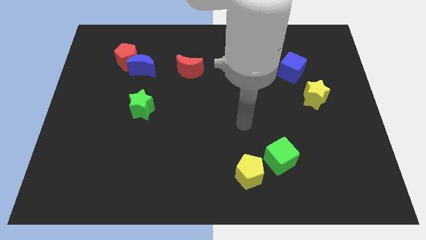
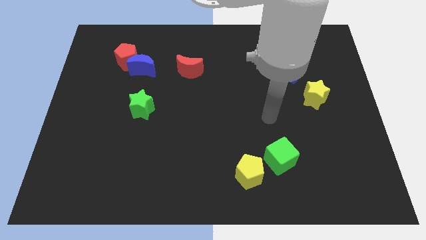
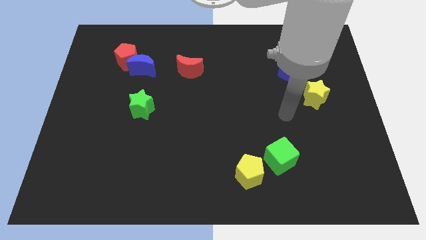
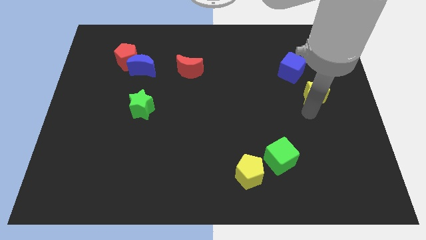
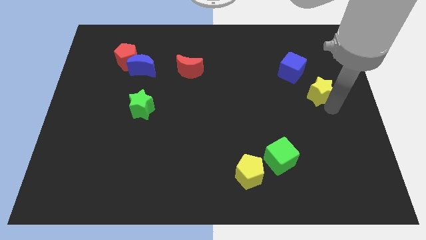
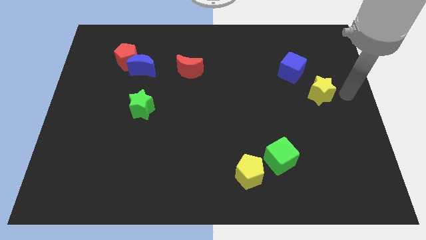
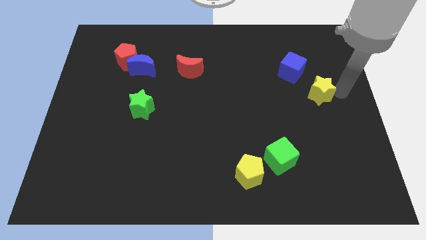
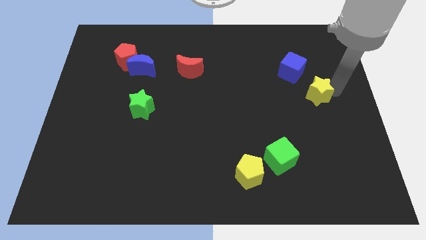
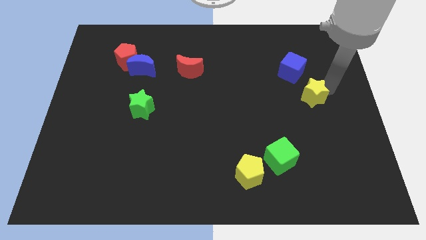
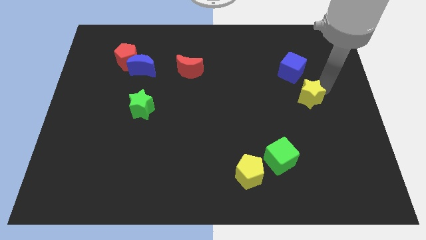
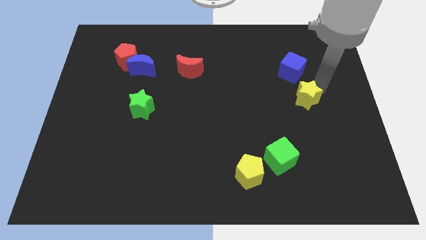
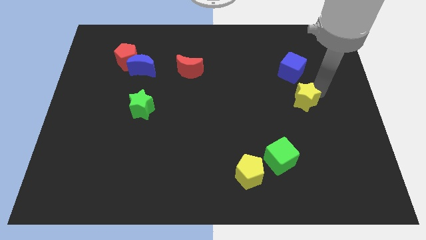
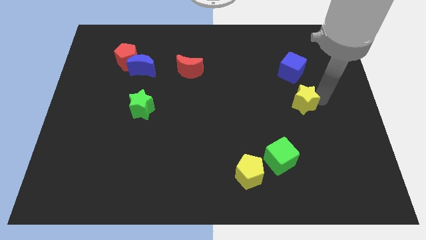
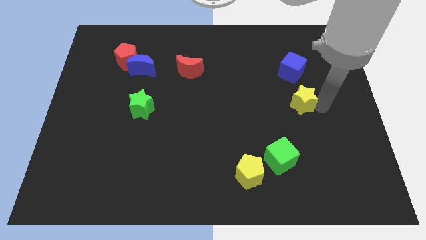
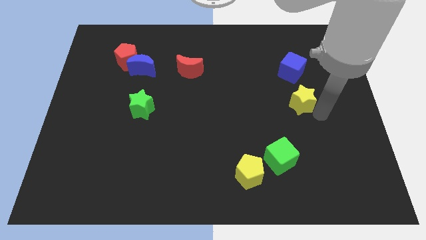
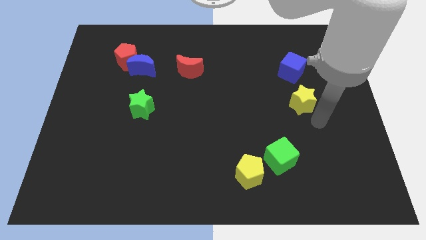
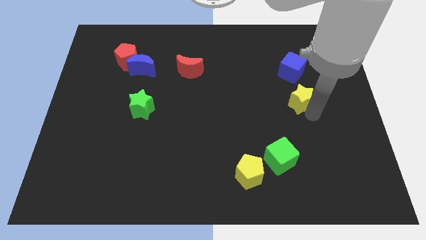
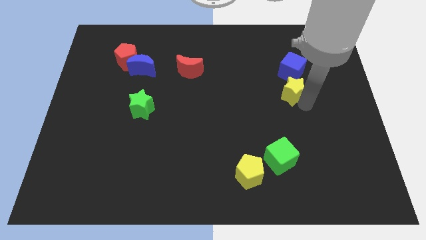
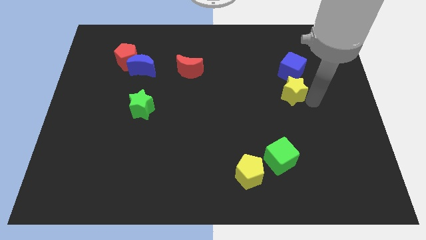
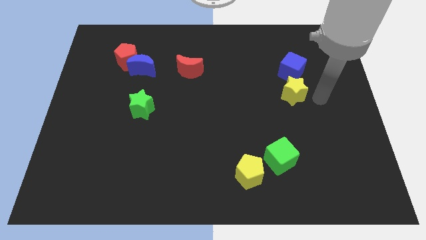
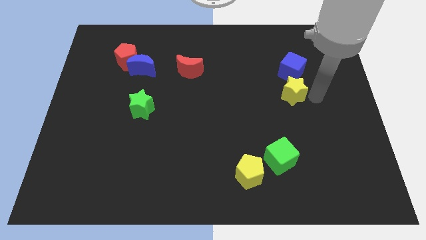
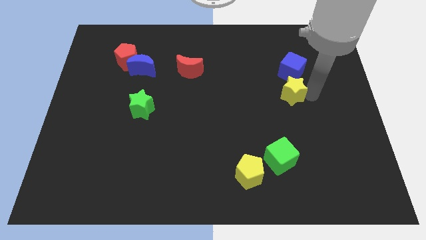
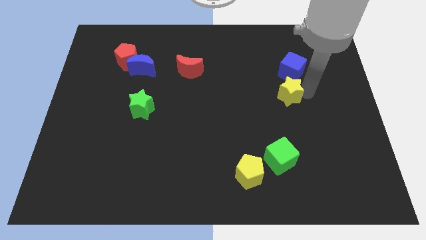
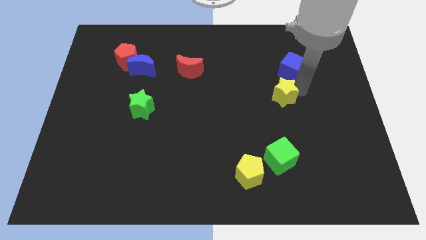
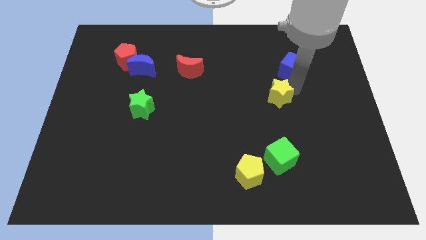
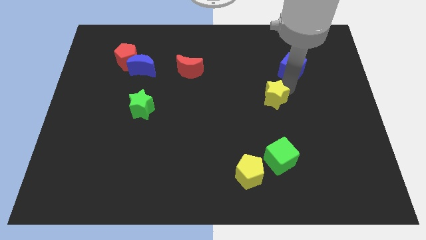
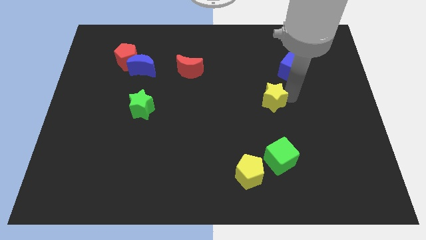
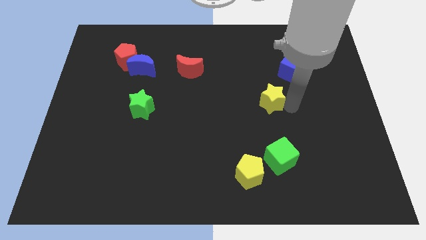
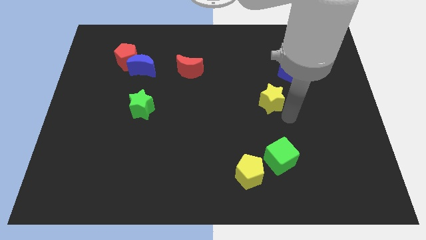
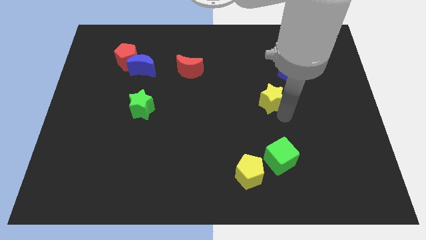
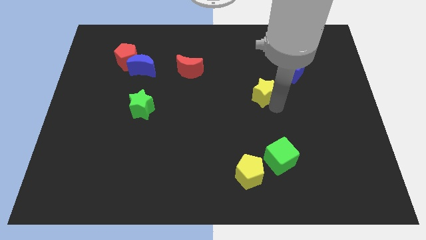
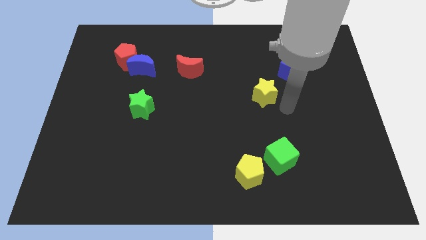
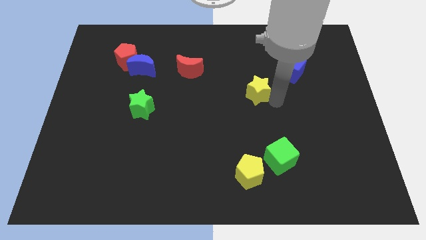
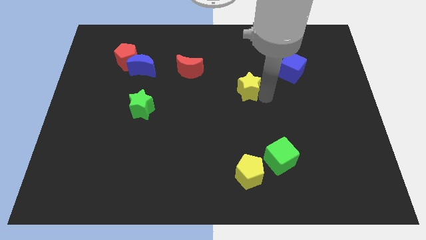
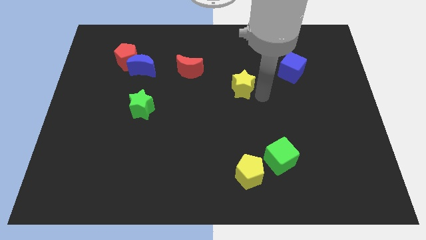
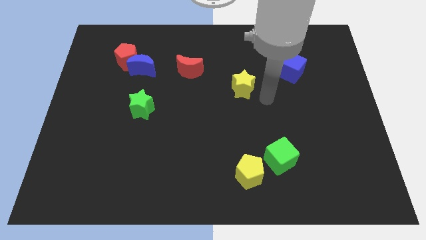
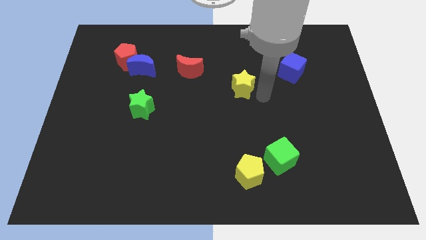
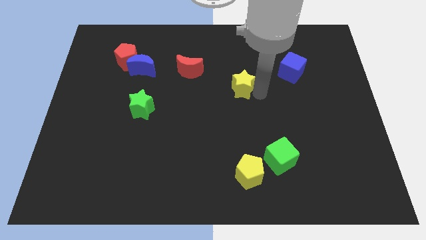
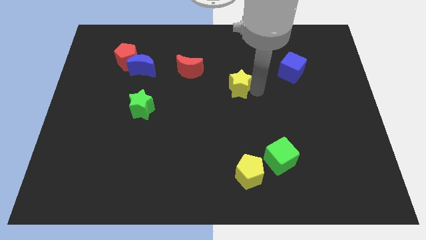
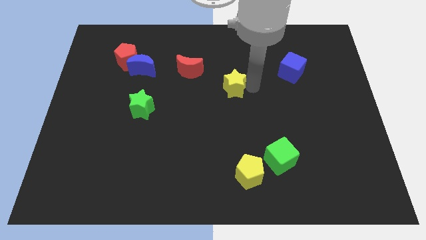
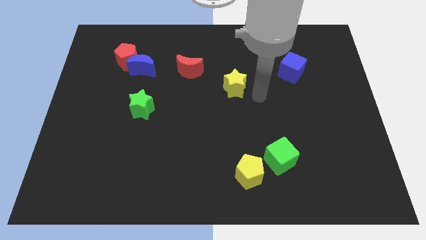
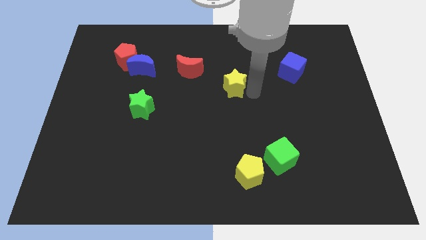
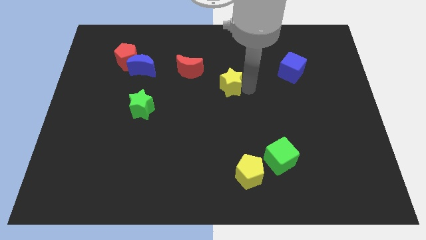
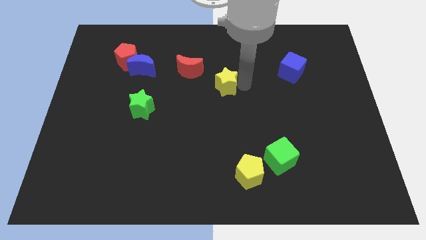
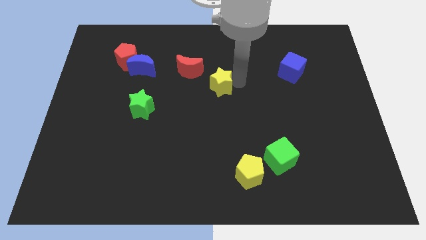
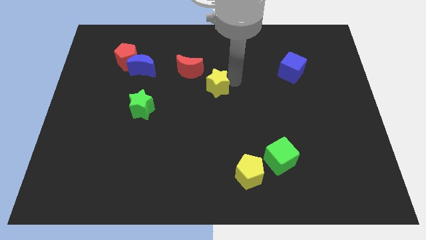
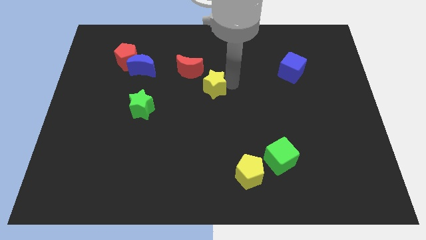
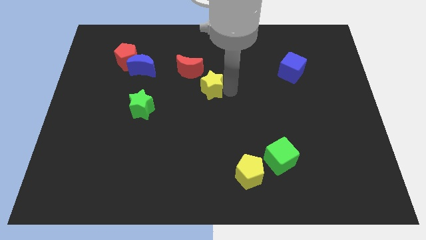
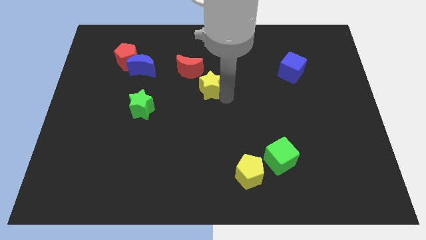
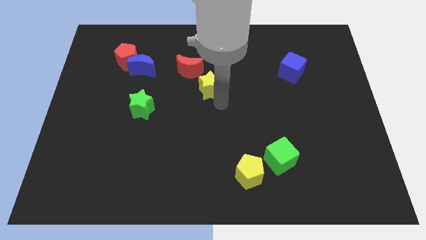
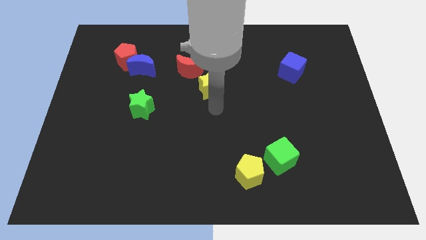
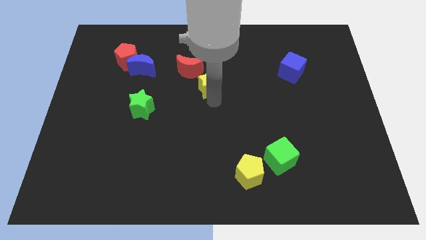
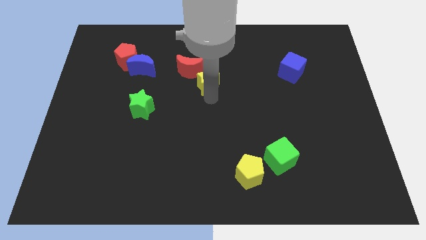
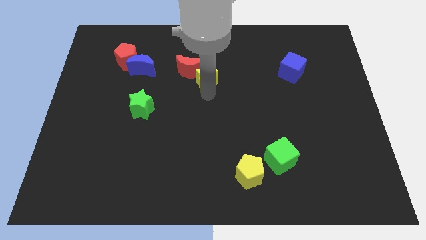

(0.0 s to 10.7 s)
move the yellow star close to the red moon

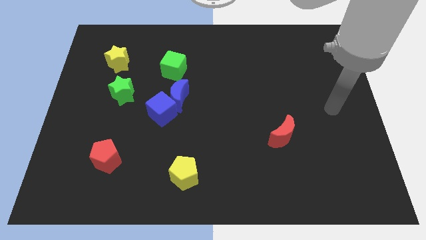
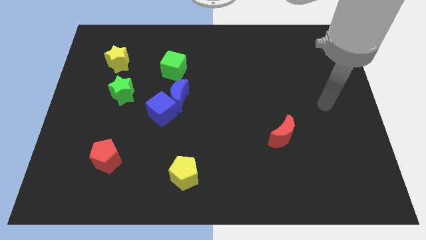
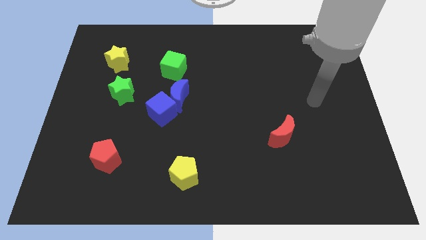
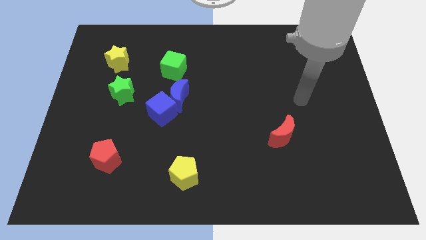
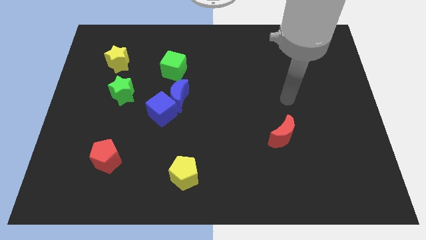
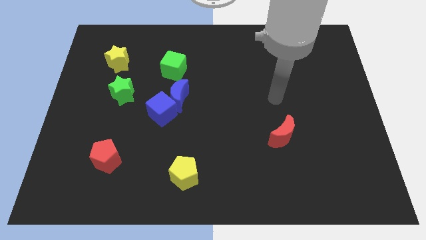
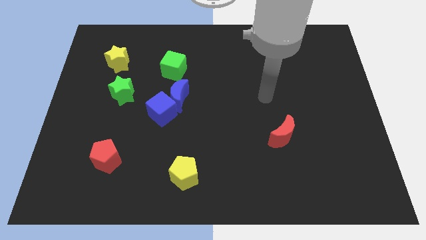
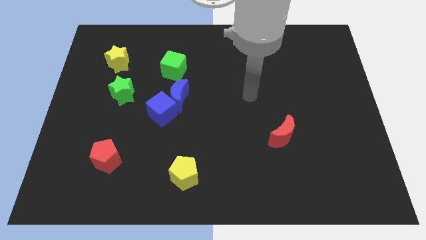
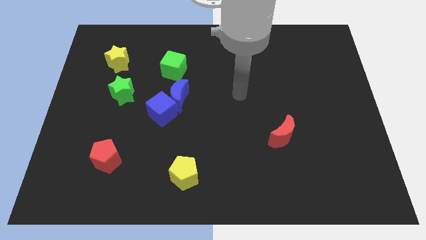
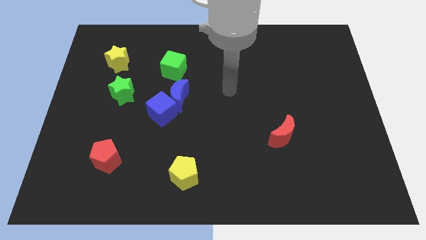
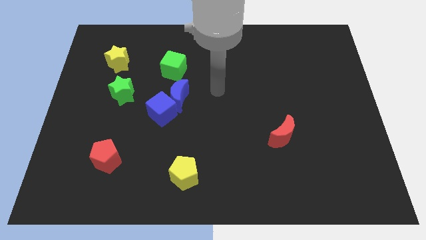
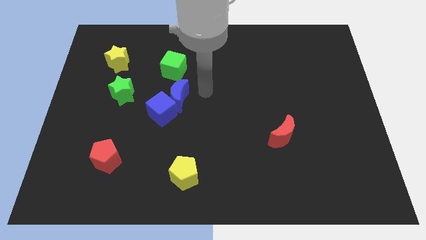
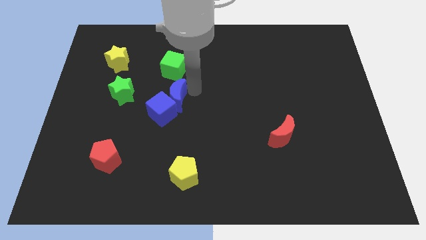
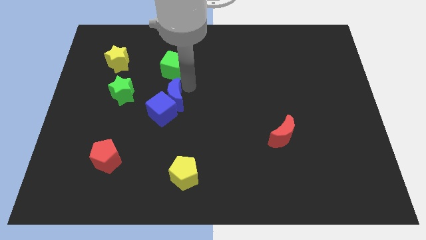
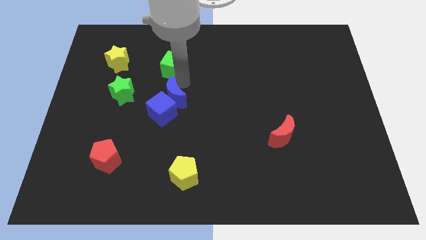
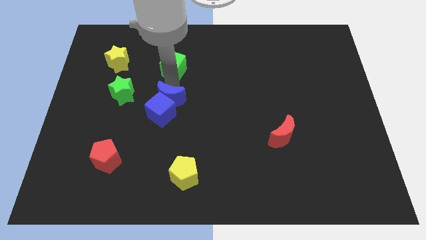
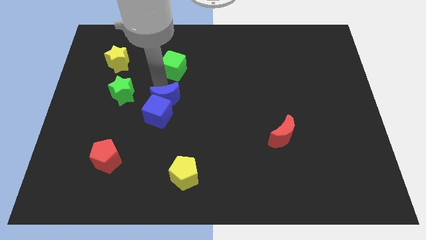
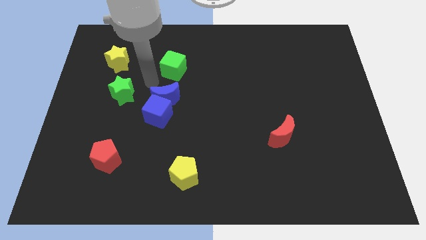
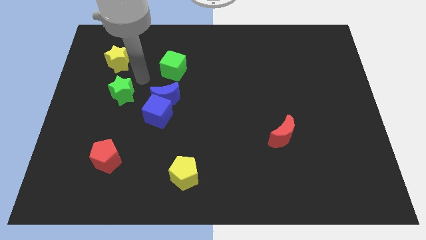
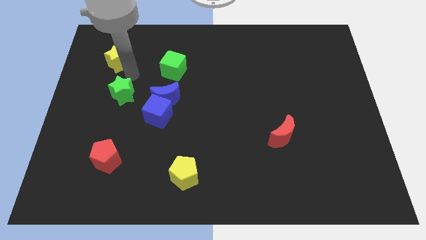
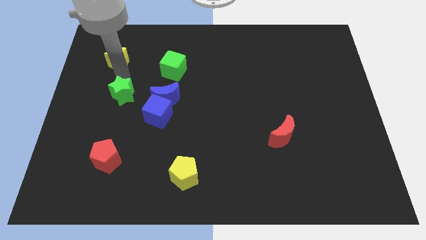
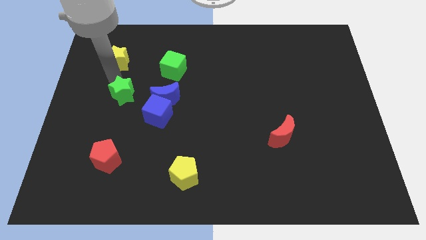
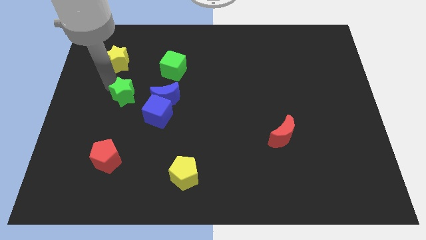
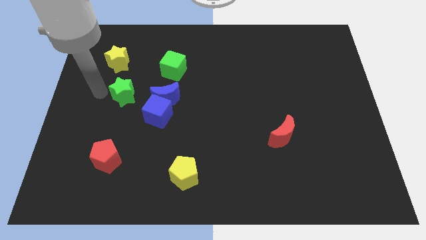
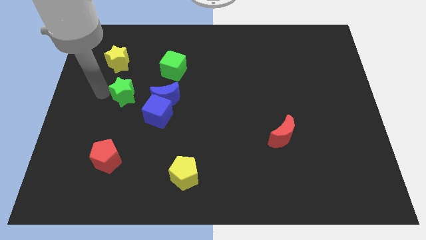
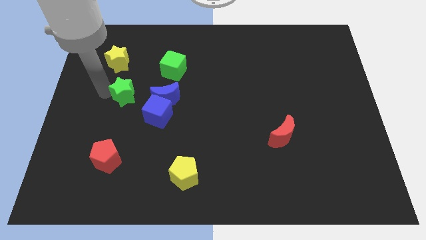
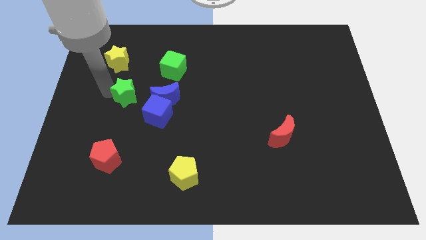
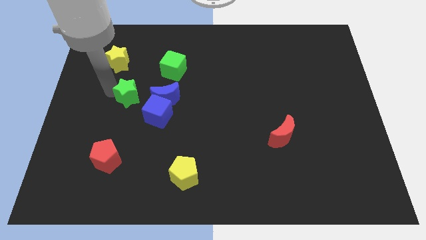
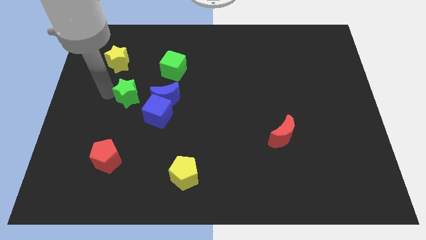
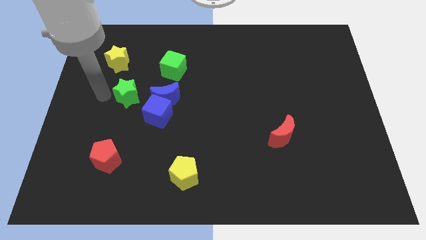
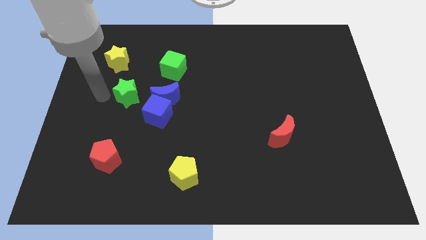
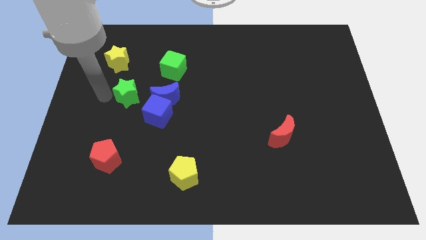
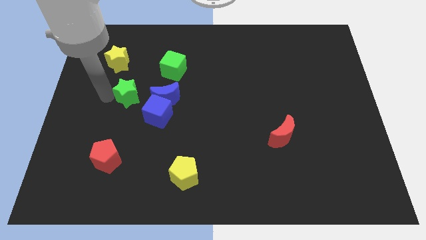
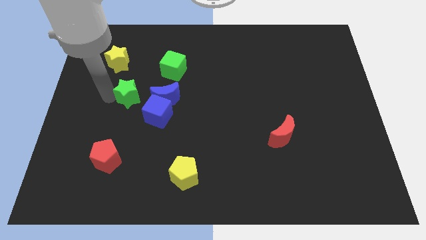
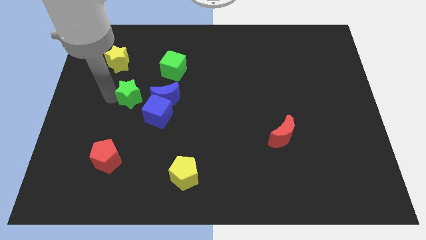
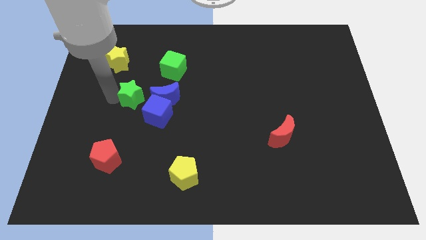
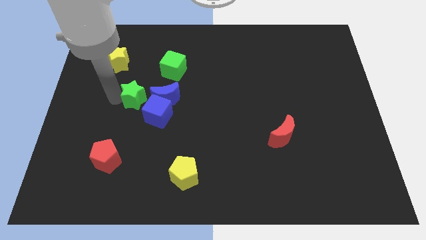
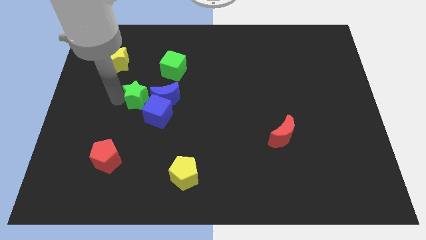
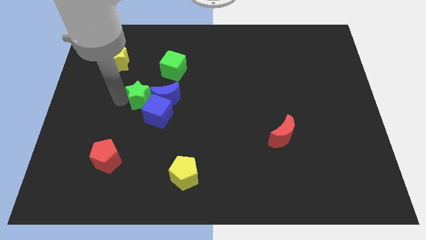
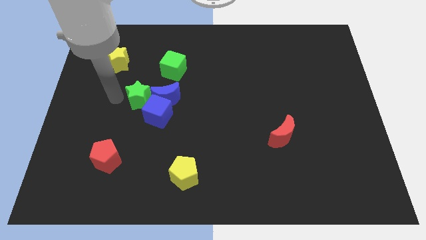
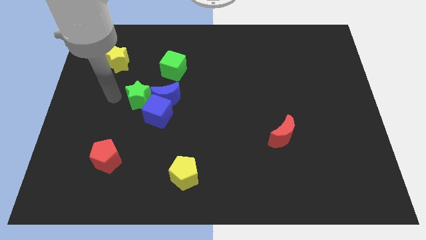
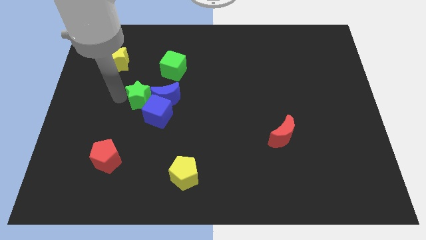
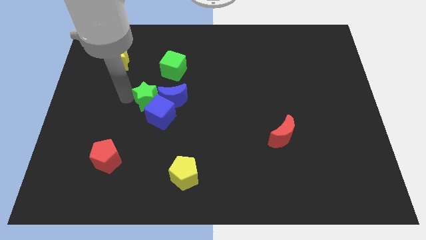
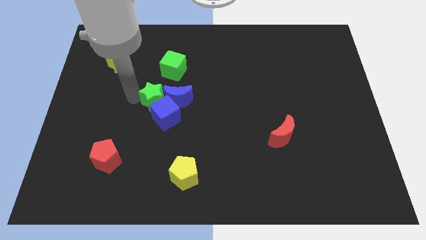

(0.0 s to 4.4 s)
move the green star close to the blue moon
